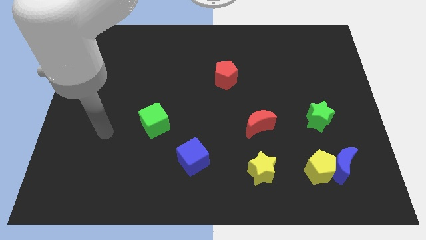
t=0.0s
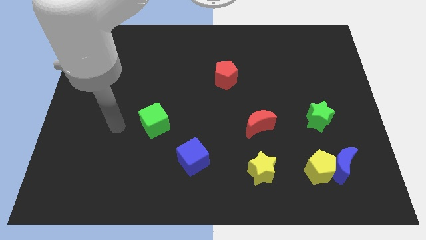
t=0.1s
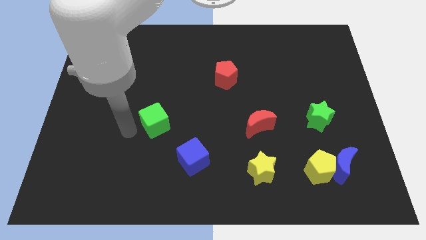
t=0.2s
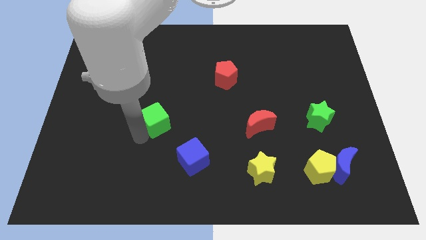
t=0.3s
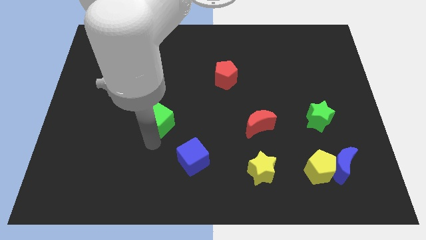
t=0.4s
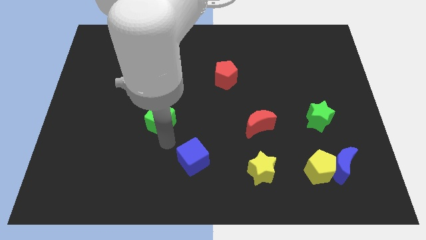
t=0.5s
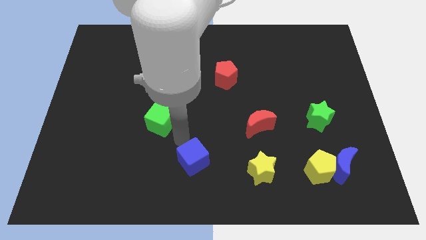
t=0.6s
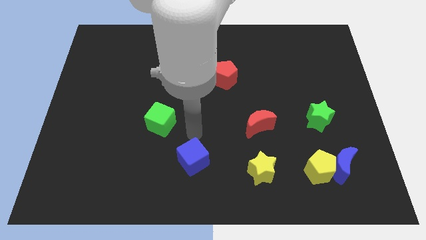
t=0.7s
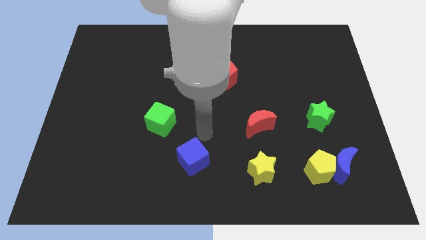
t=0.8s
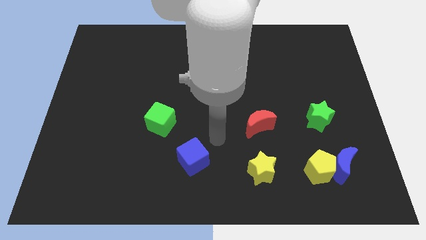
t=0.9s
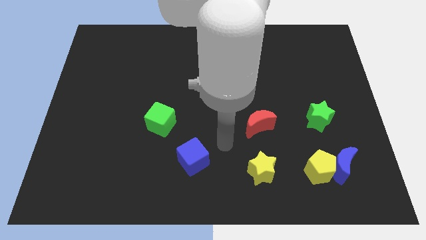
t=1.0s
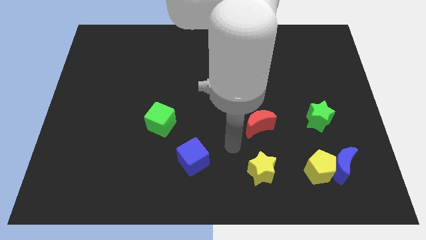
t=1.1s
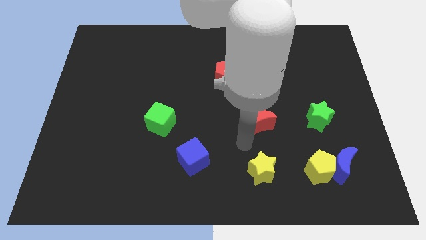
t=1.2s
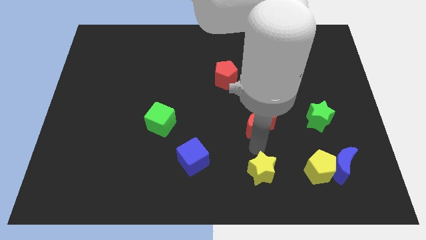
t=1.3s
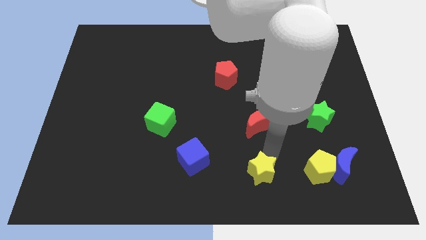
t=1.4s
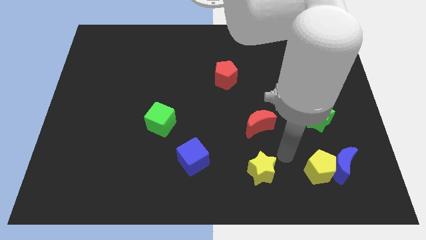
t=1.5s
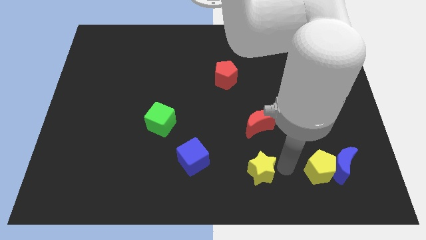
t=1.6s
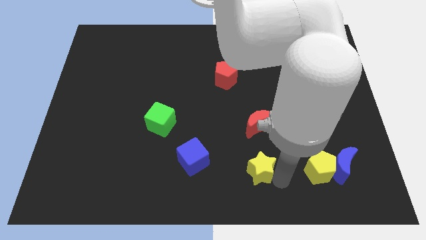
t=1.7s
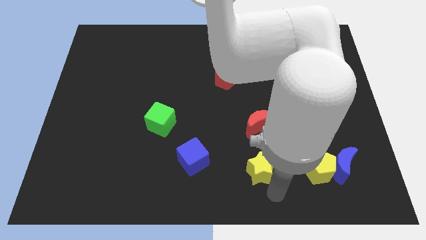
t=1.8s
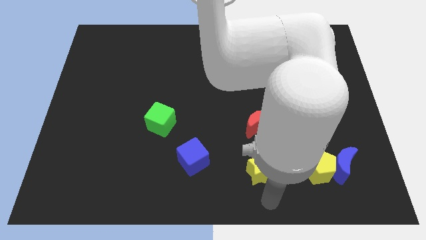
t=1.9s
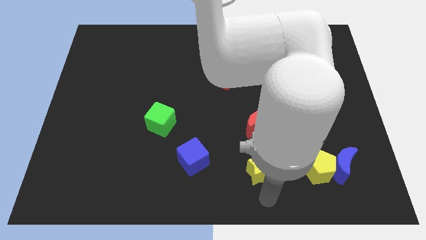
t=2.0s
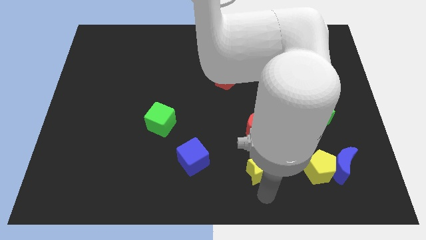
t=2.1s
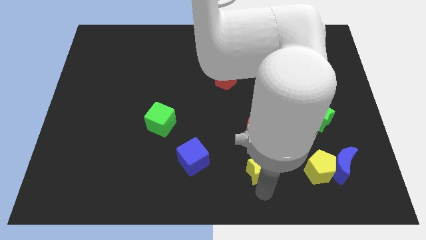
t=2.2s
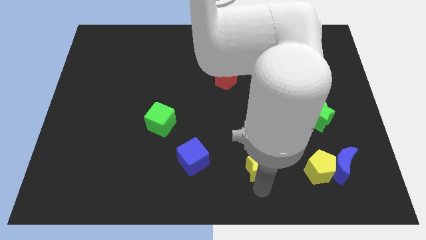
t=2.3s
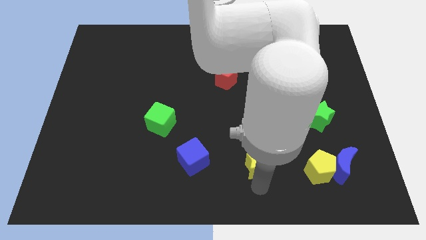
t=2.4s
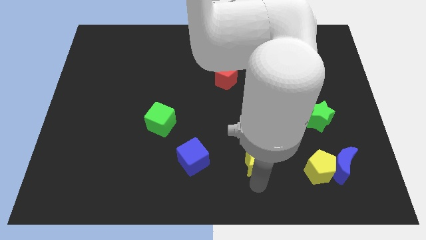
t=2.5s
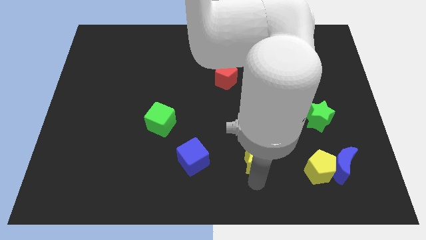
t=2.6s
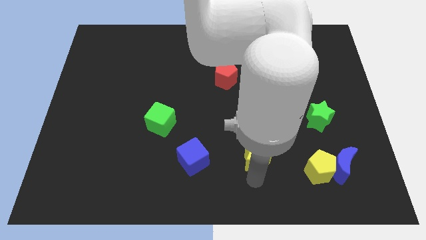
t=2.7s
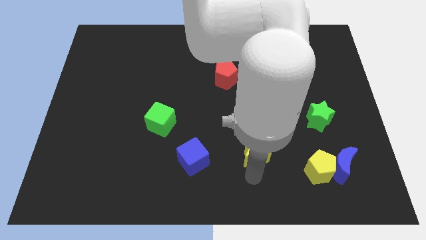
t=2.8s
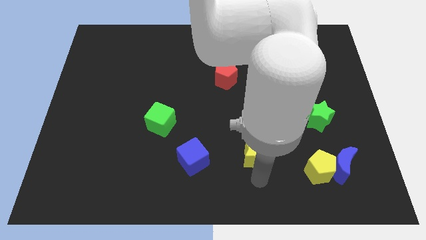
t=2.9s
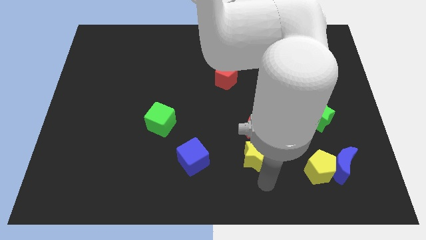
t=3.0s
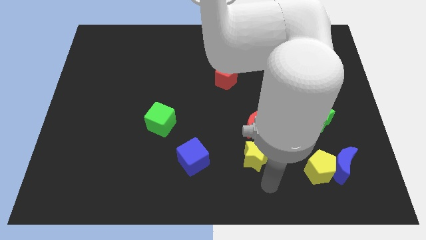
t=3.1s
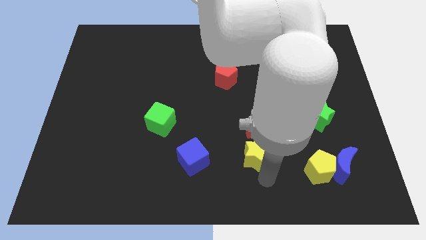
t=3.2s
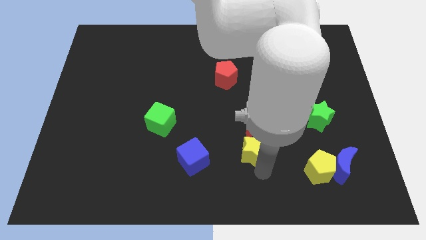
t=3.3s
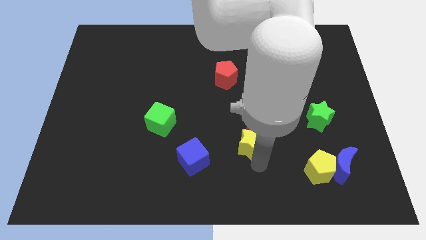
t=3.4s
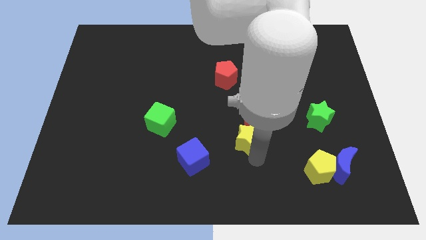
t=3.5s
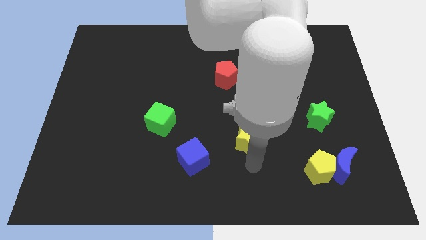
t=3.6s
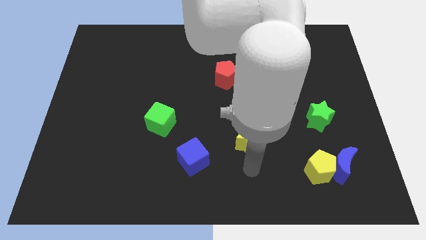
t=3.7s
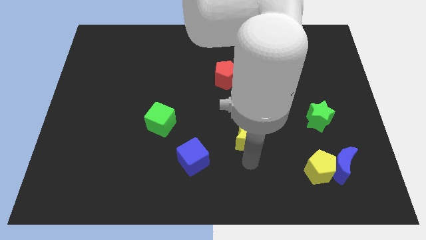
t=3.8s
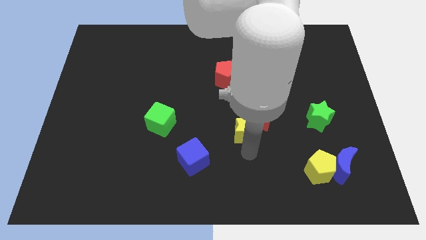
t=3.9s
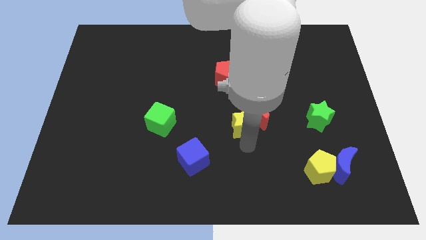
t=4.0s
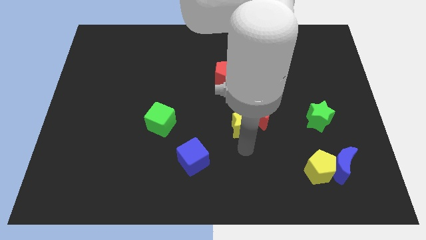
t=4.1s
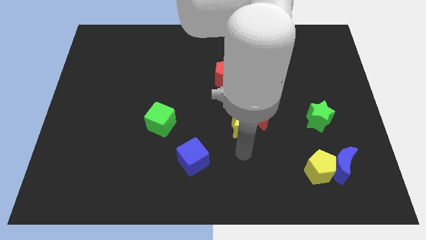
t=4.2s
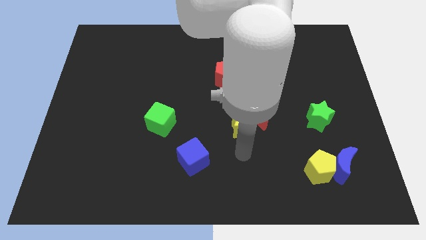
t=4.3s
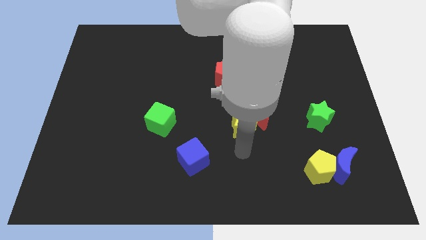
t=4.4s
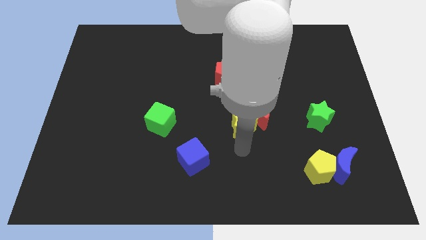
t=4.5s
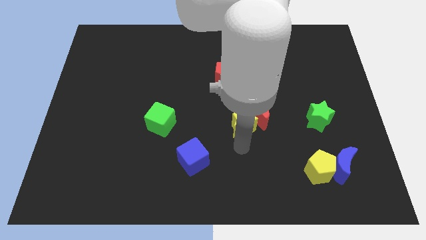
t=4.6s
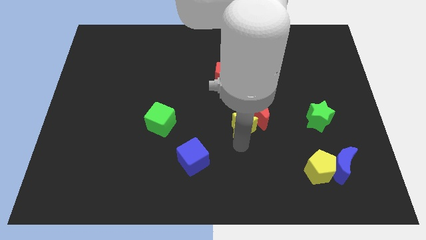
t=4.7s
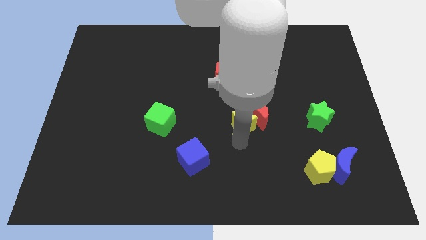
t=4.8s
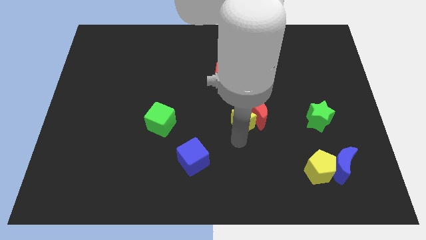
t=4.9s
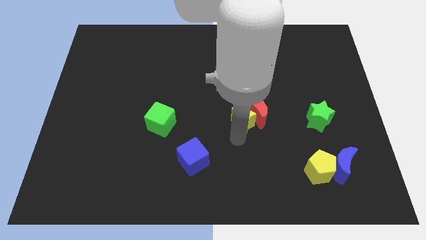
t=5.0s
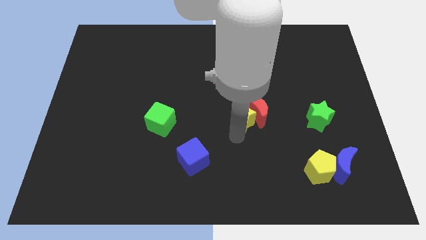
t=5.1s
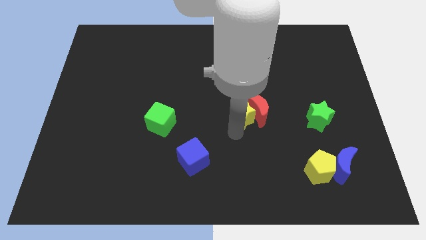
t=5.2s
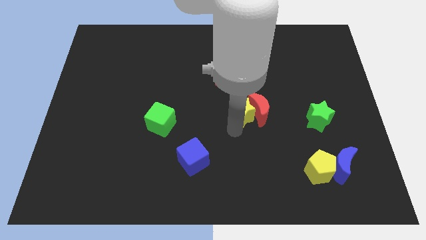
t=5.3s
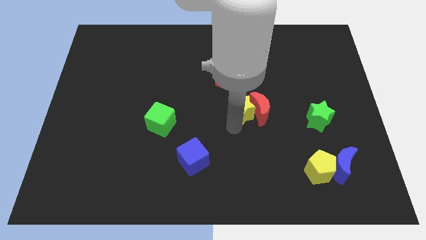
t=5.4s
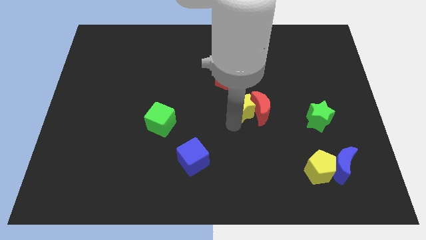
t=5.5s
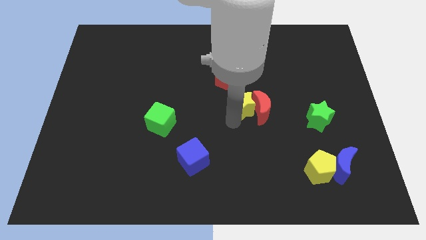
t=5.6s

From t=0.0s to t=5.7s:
put the yellow star to the bottom right side of the red pentagon

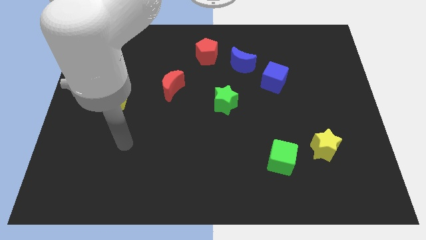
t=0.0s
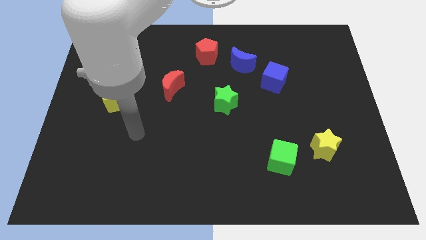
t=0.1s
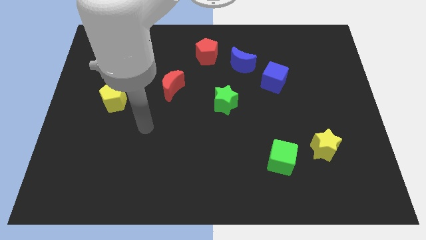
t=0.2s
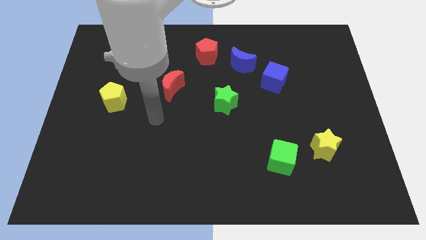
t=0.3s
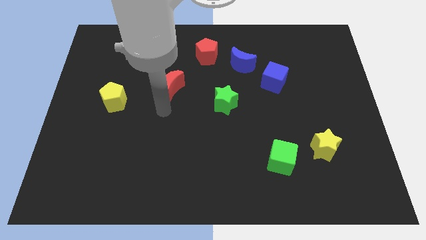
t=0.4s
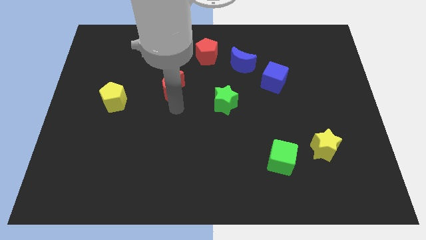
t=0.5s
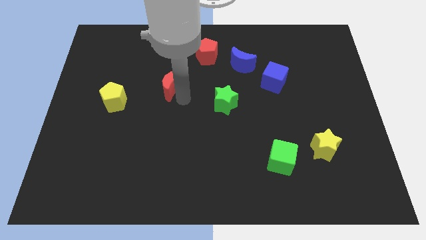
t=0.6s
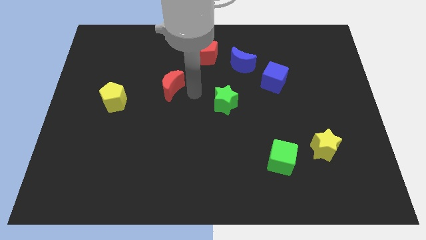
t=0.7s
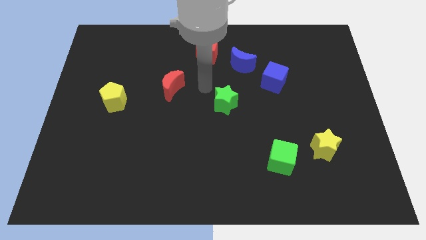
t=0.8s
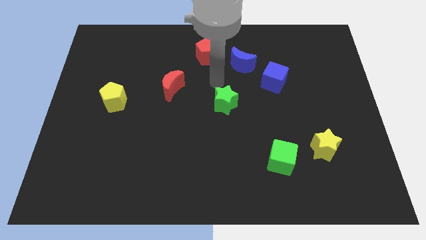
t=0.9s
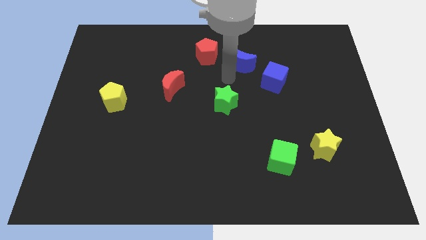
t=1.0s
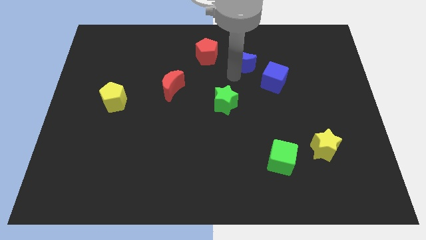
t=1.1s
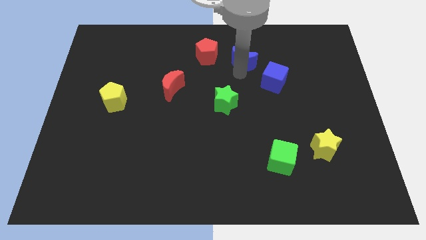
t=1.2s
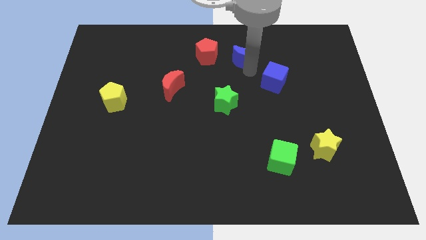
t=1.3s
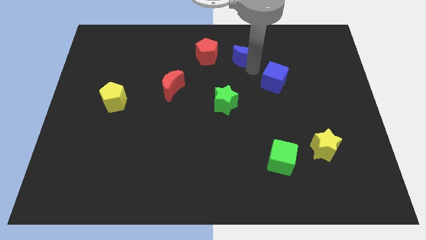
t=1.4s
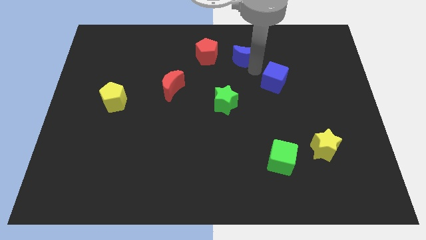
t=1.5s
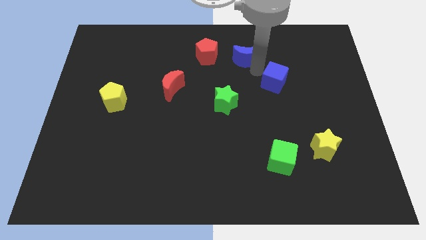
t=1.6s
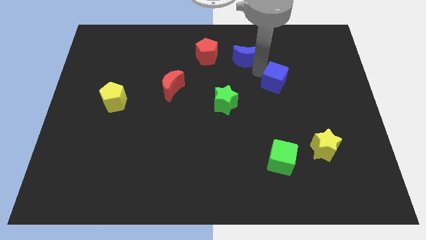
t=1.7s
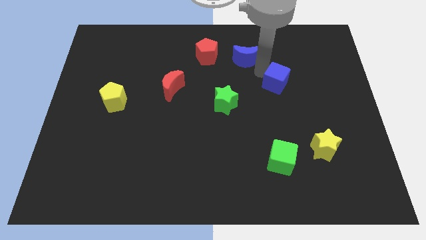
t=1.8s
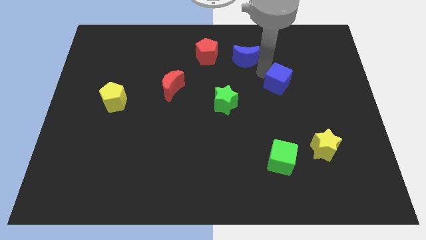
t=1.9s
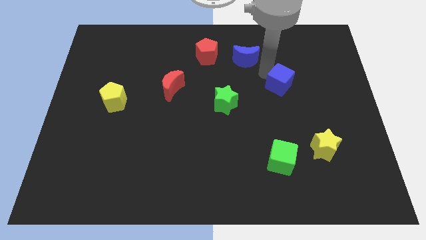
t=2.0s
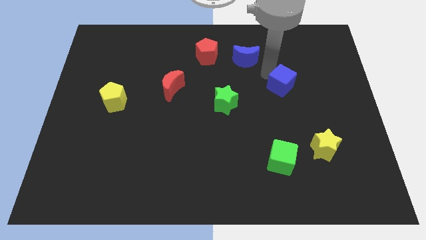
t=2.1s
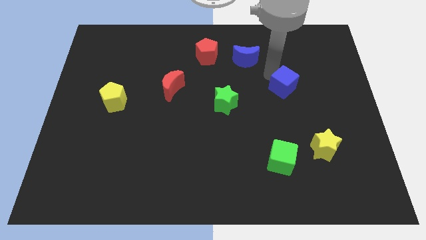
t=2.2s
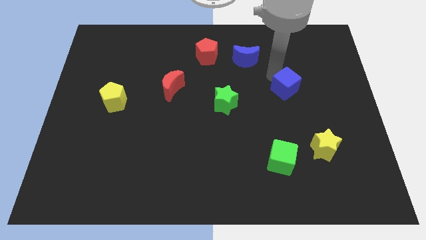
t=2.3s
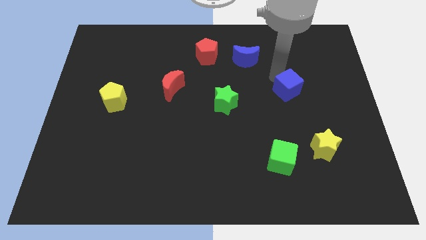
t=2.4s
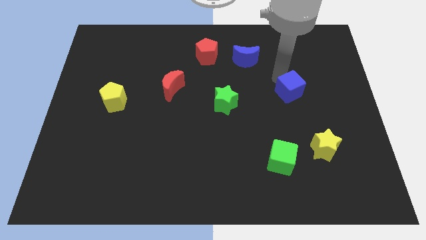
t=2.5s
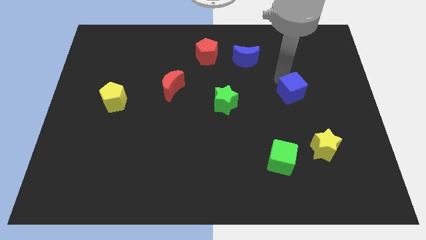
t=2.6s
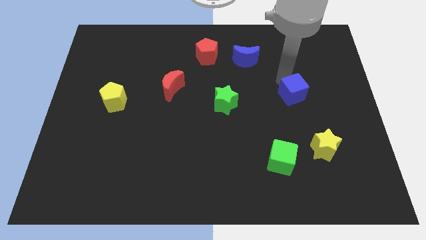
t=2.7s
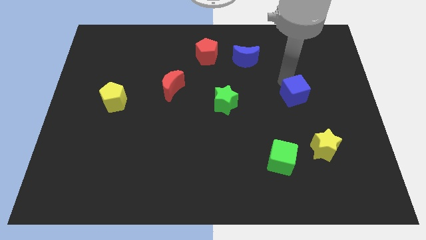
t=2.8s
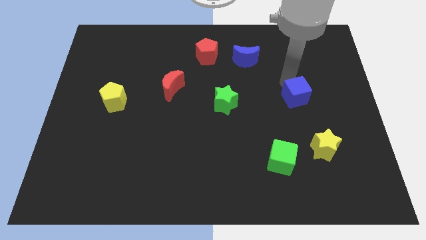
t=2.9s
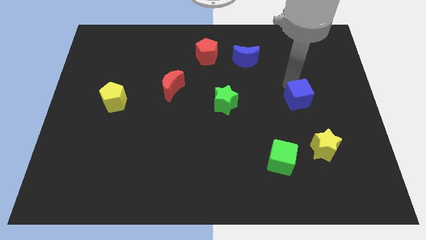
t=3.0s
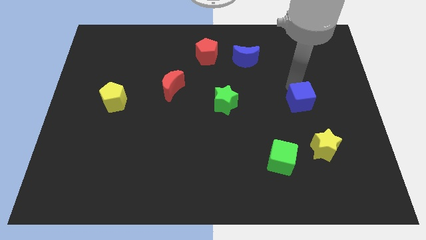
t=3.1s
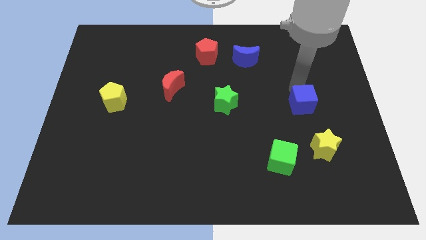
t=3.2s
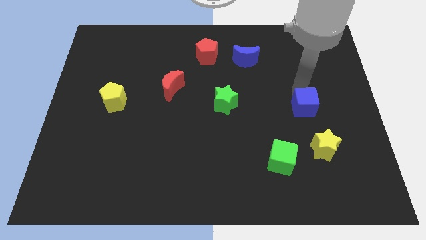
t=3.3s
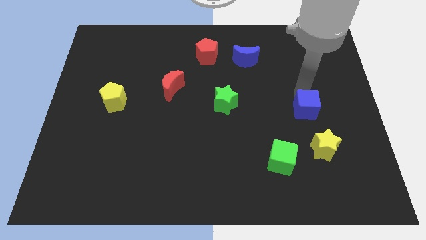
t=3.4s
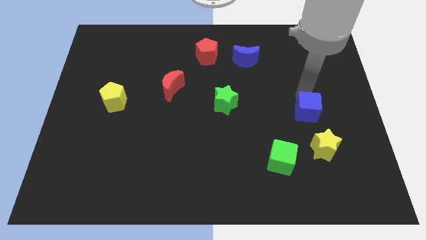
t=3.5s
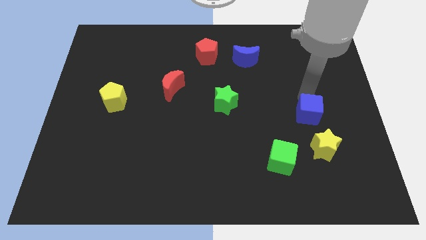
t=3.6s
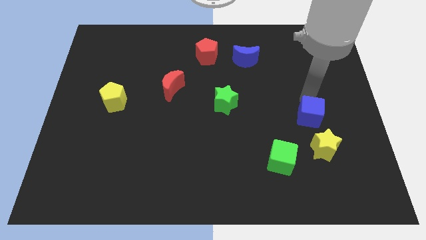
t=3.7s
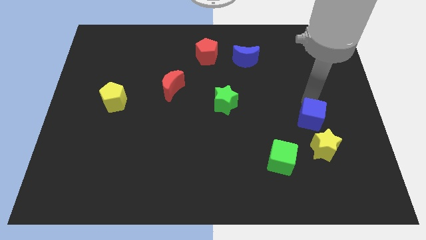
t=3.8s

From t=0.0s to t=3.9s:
slide the blue cube to the top left side of the yellow star
